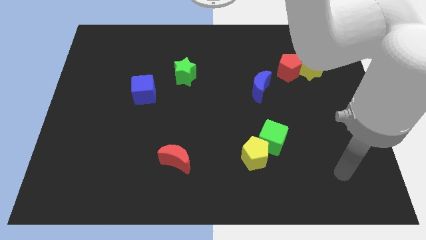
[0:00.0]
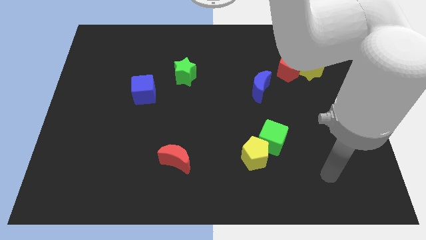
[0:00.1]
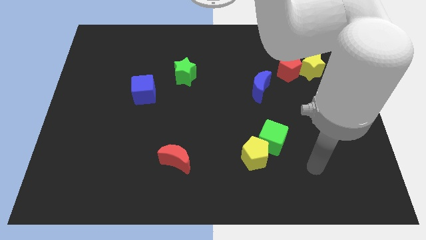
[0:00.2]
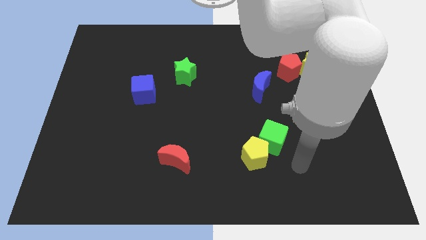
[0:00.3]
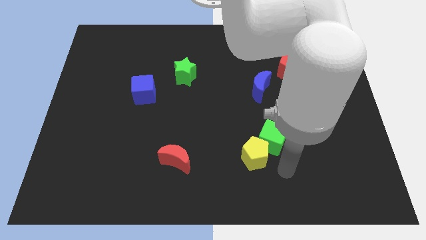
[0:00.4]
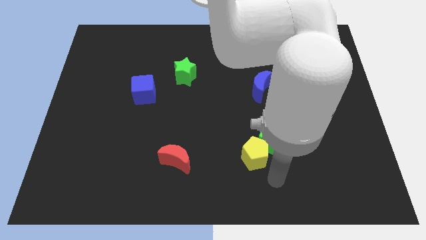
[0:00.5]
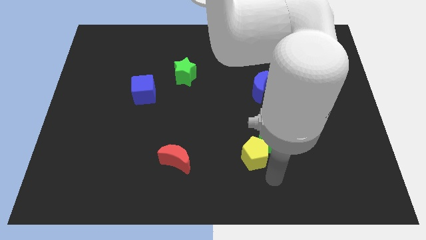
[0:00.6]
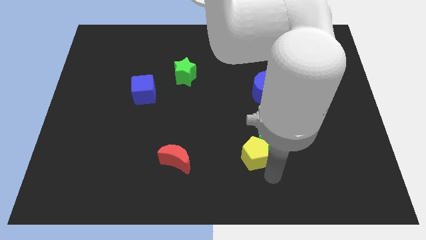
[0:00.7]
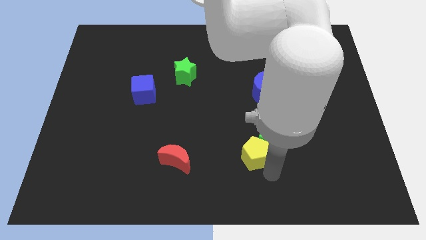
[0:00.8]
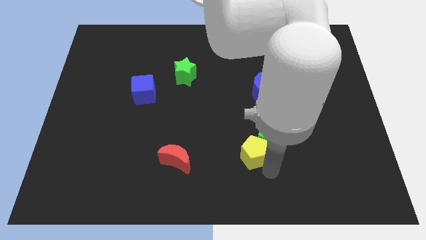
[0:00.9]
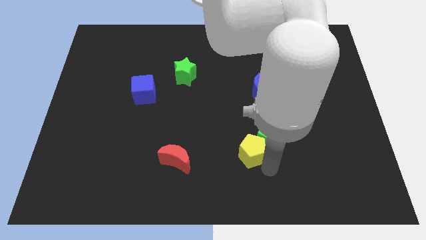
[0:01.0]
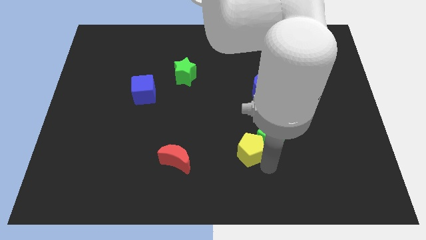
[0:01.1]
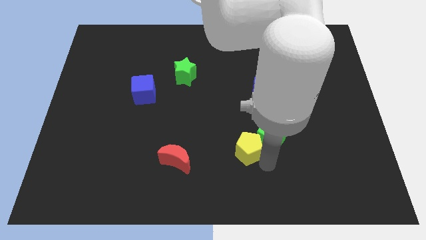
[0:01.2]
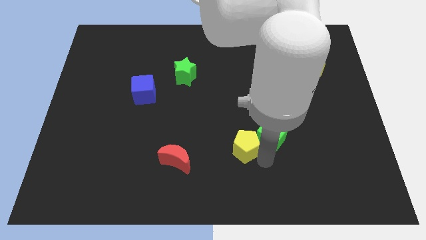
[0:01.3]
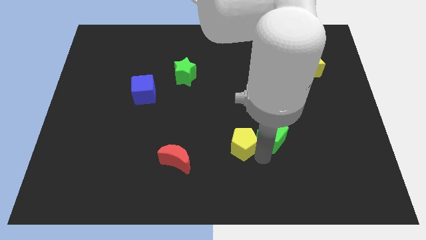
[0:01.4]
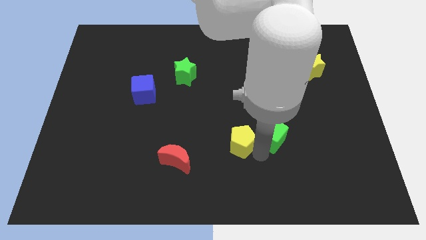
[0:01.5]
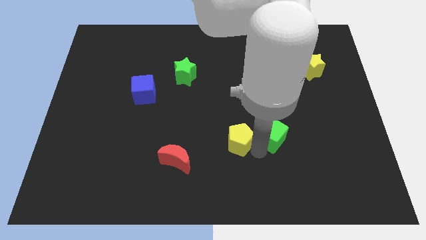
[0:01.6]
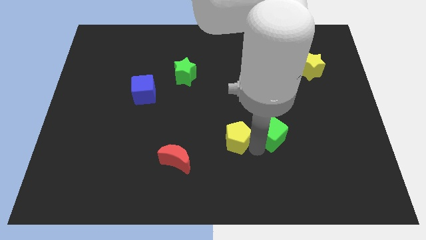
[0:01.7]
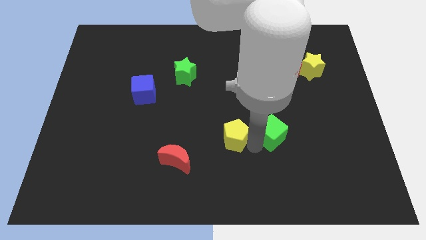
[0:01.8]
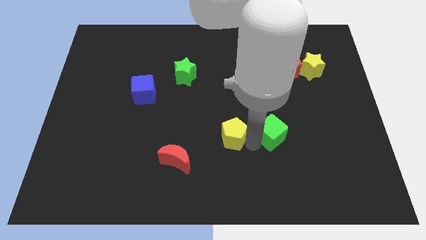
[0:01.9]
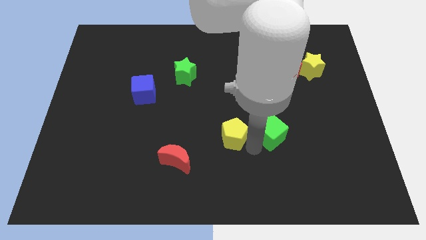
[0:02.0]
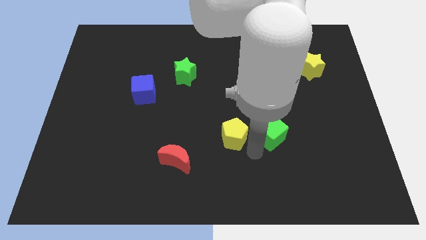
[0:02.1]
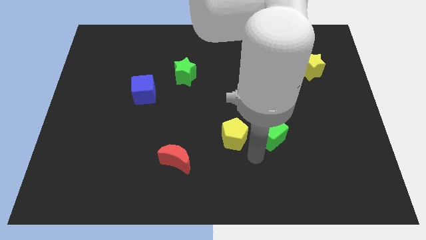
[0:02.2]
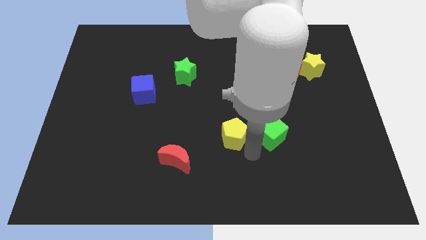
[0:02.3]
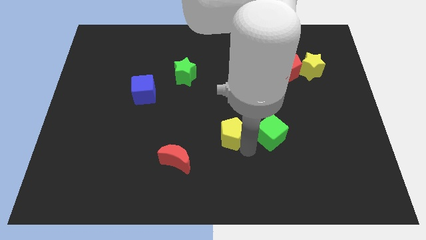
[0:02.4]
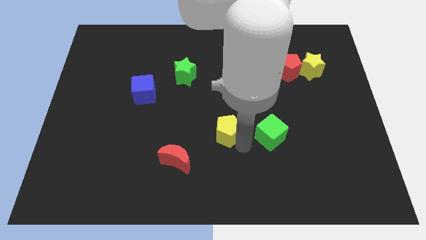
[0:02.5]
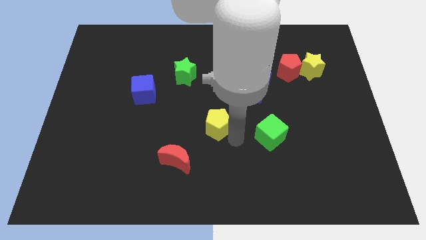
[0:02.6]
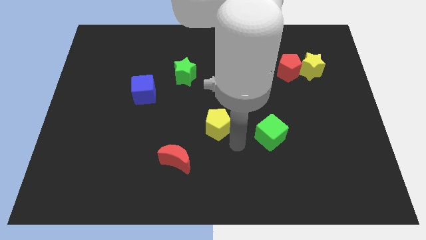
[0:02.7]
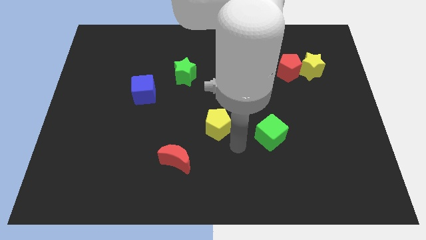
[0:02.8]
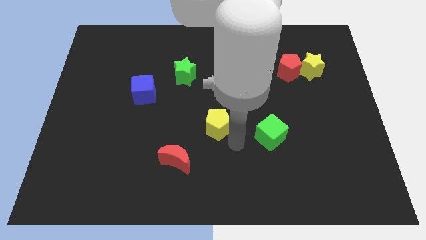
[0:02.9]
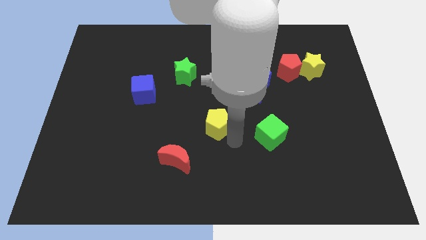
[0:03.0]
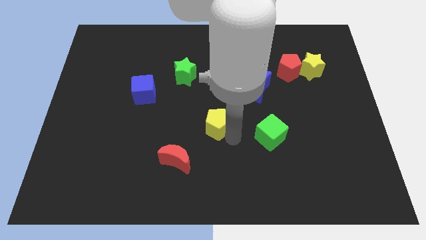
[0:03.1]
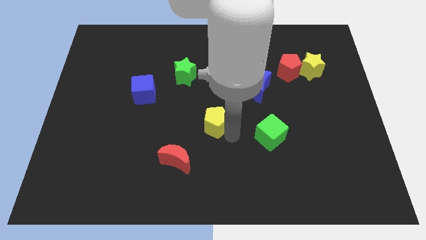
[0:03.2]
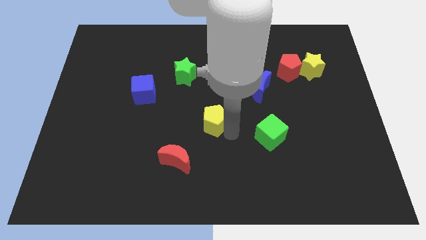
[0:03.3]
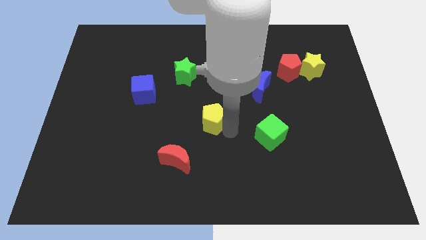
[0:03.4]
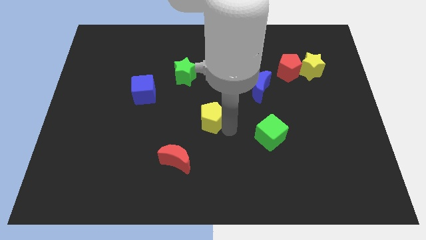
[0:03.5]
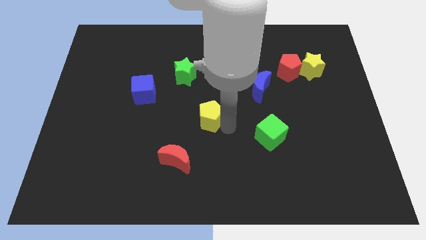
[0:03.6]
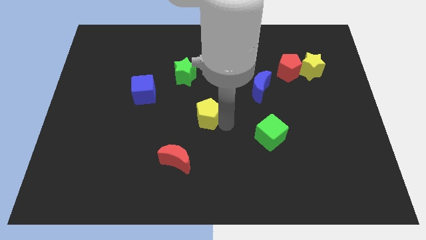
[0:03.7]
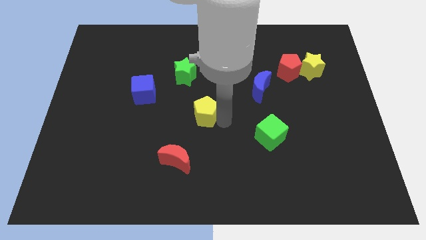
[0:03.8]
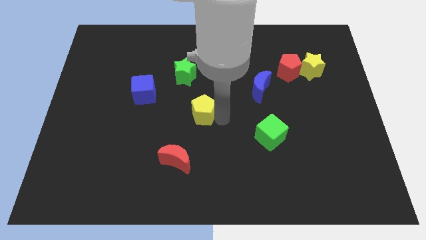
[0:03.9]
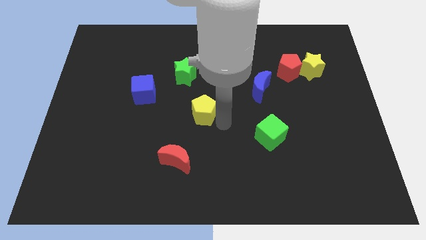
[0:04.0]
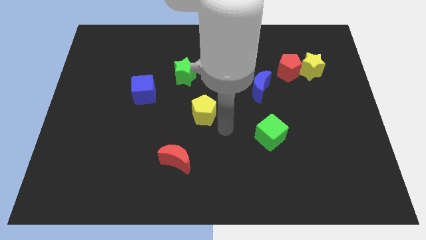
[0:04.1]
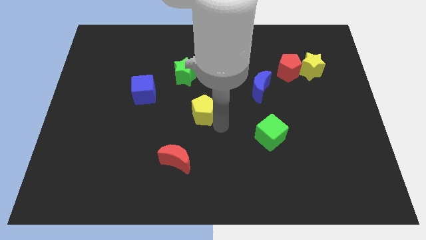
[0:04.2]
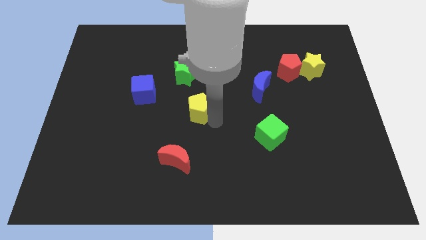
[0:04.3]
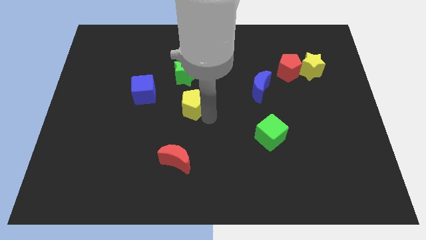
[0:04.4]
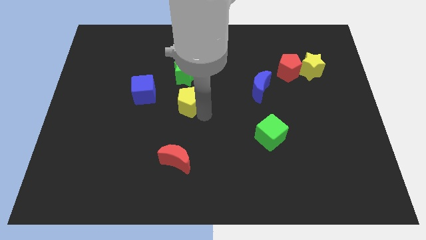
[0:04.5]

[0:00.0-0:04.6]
move the yellow pentagon diagonally upwards and to the left

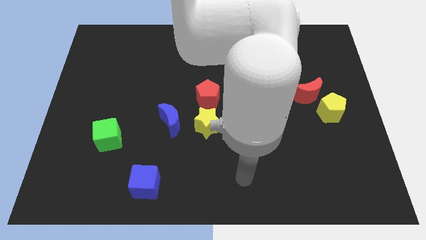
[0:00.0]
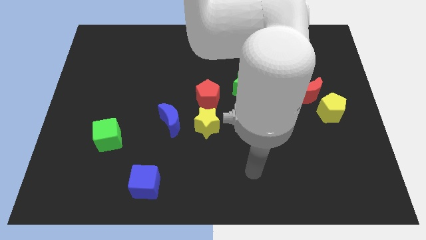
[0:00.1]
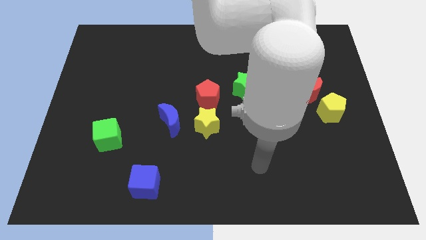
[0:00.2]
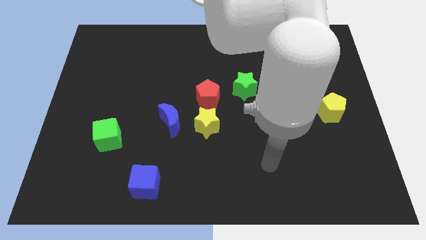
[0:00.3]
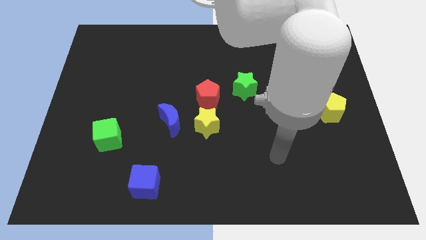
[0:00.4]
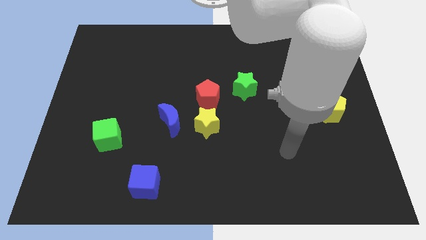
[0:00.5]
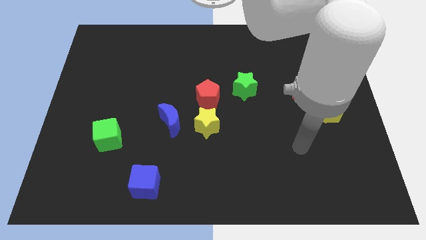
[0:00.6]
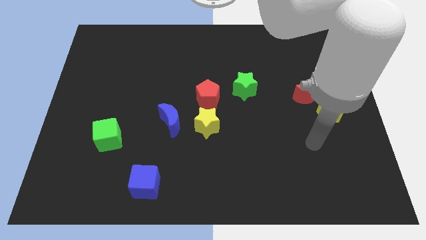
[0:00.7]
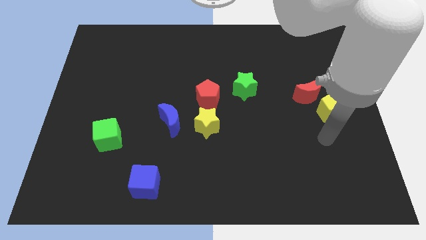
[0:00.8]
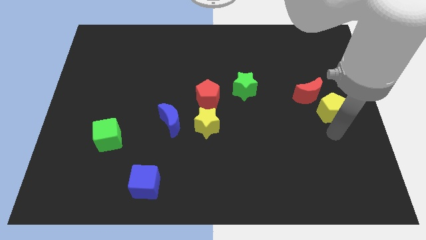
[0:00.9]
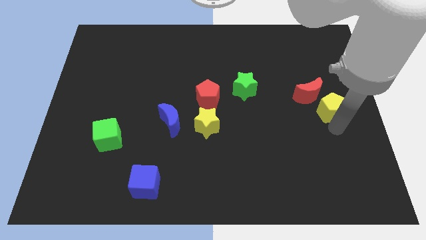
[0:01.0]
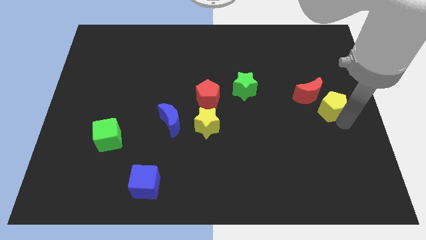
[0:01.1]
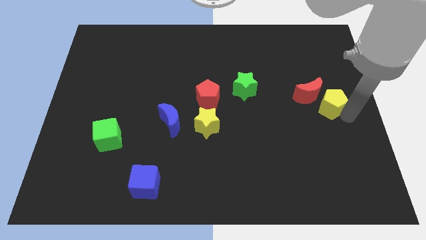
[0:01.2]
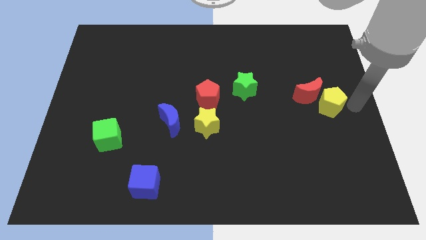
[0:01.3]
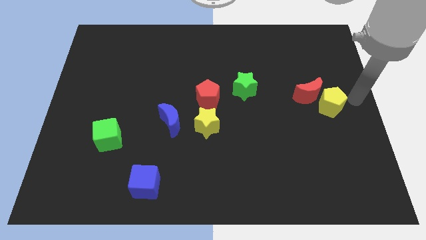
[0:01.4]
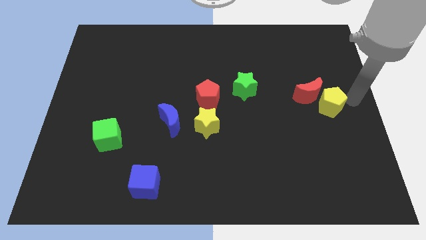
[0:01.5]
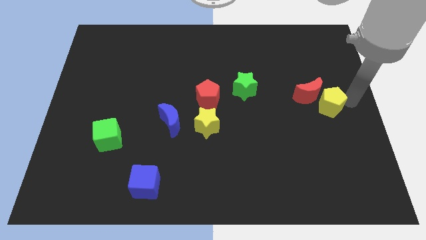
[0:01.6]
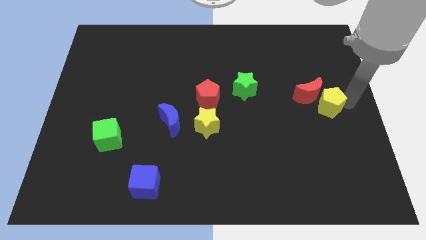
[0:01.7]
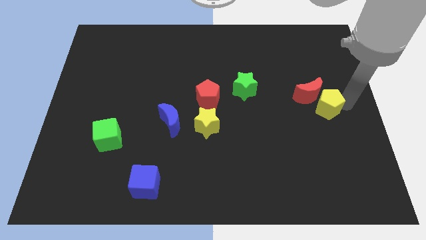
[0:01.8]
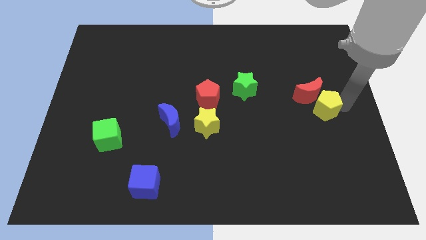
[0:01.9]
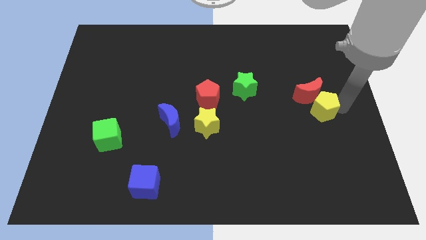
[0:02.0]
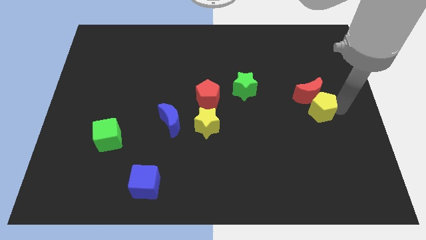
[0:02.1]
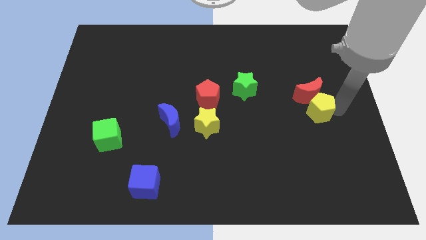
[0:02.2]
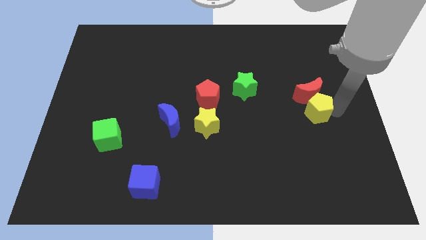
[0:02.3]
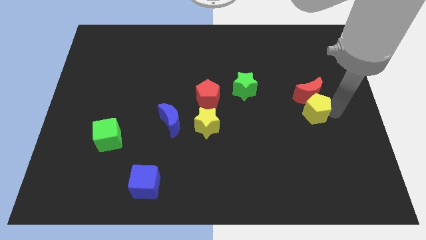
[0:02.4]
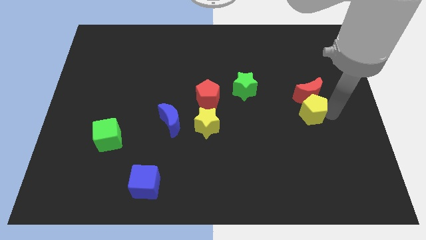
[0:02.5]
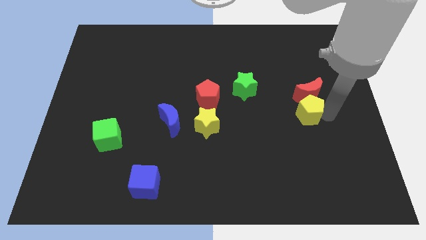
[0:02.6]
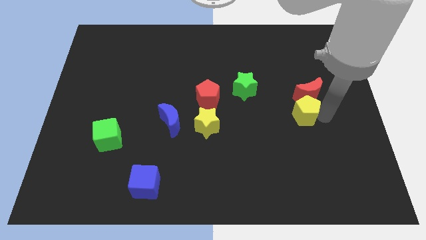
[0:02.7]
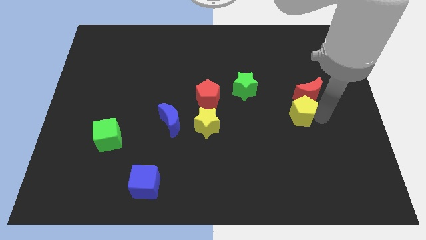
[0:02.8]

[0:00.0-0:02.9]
slightly slide the yellow pentagon left

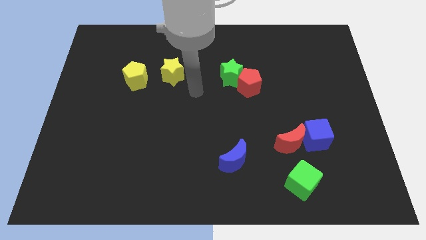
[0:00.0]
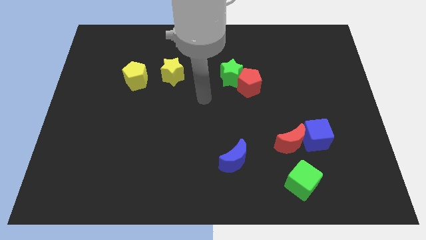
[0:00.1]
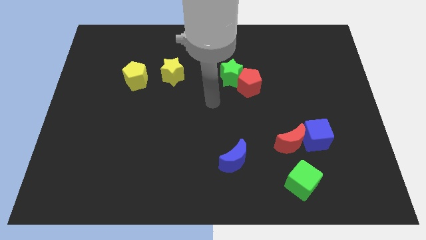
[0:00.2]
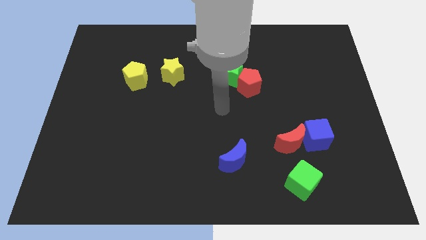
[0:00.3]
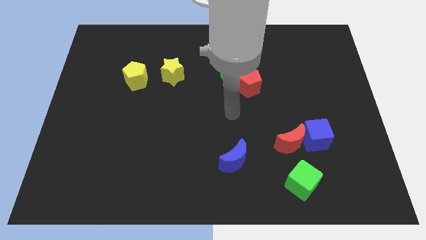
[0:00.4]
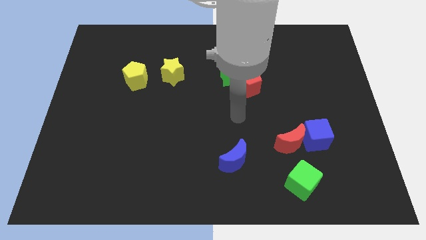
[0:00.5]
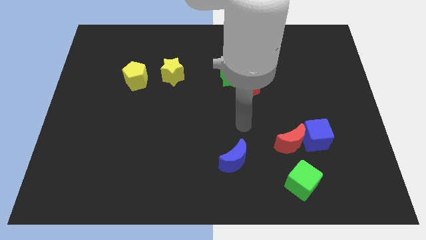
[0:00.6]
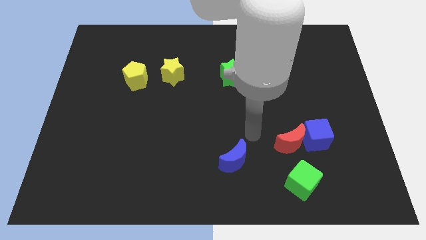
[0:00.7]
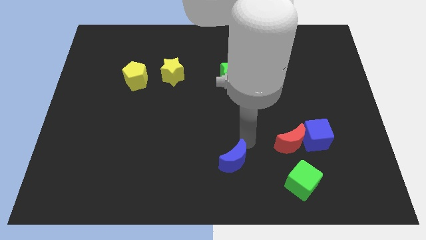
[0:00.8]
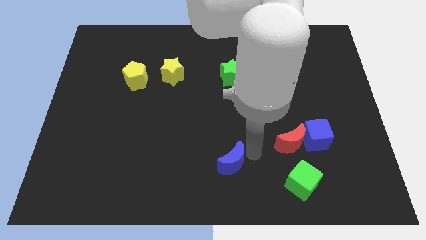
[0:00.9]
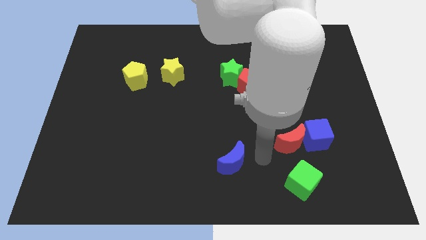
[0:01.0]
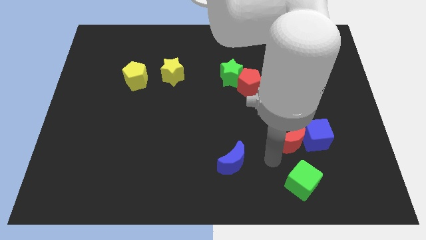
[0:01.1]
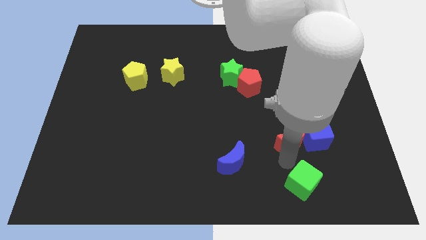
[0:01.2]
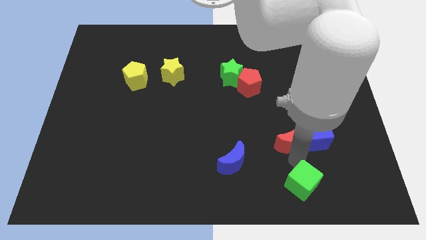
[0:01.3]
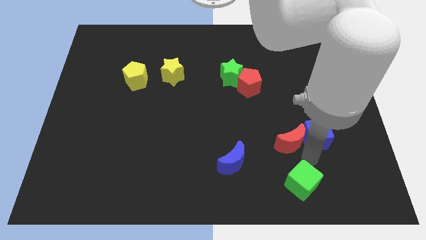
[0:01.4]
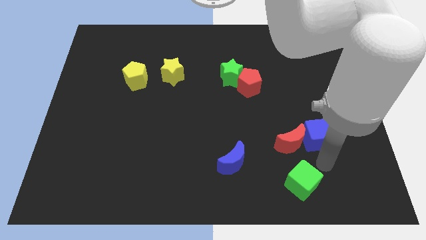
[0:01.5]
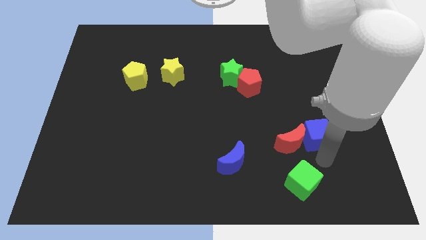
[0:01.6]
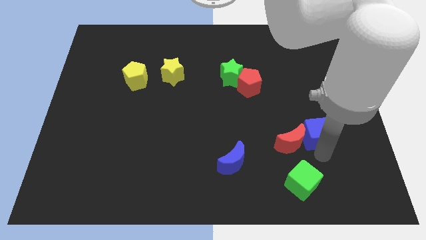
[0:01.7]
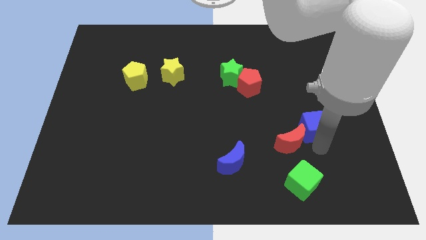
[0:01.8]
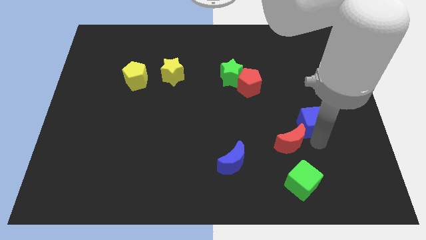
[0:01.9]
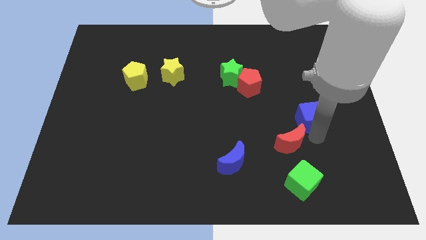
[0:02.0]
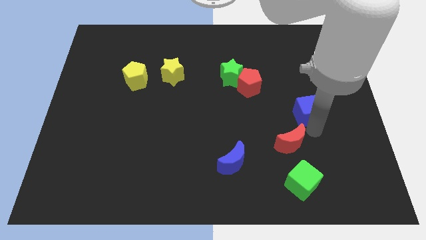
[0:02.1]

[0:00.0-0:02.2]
move the blue cube upwards slightly
